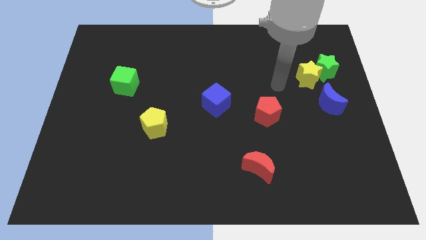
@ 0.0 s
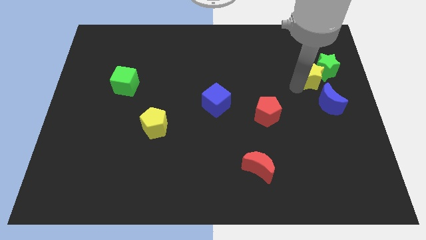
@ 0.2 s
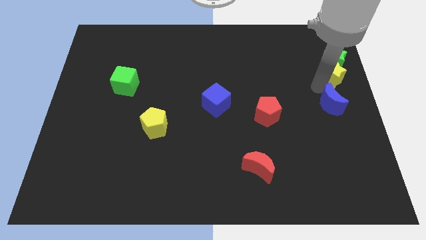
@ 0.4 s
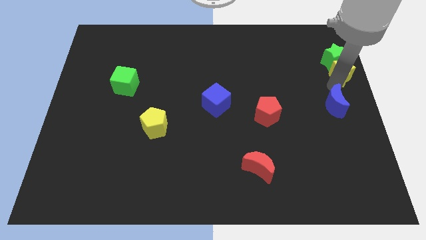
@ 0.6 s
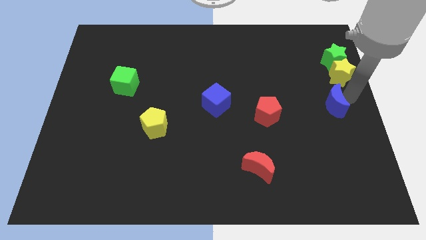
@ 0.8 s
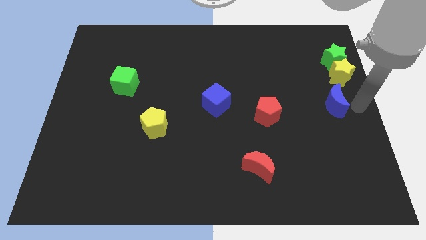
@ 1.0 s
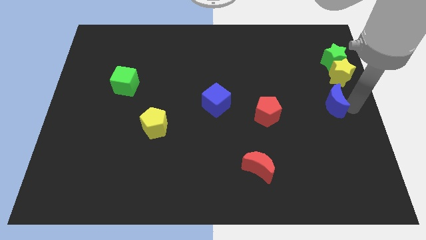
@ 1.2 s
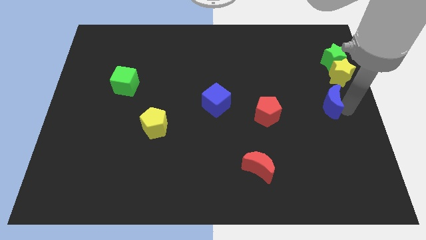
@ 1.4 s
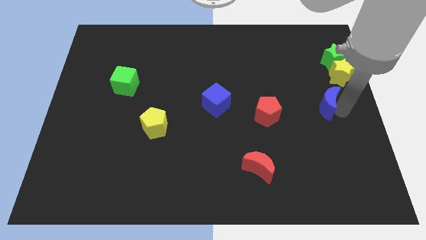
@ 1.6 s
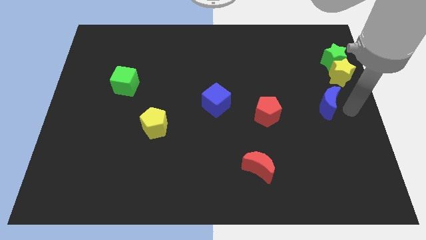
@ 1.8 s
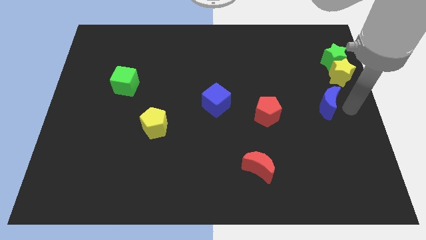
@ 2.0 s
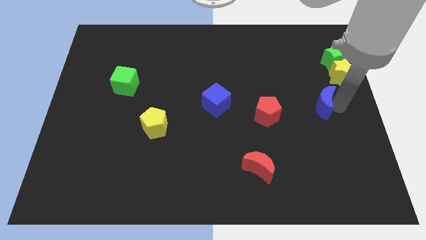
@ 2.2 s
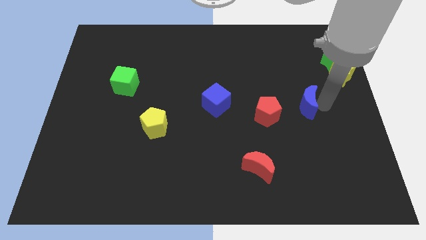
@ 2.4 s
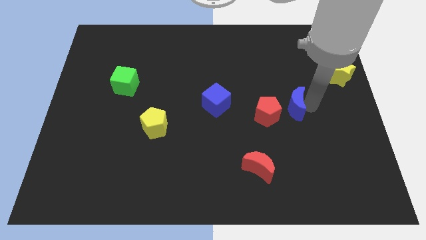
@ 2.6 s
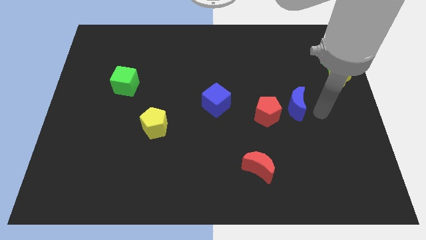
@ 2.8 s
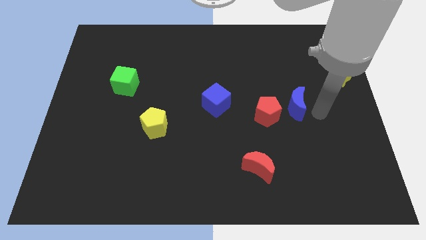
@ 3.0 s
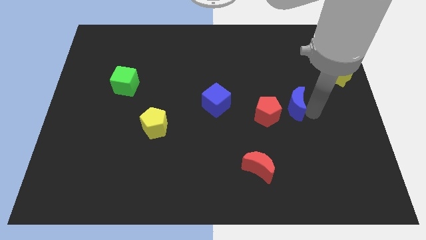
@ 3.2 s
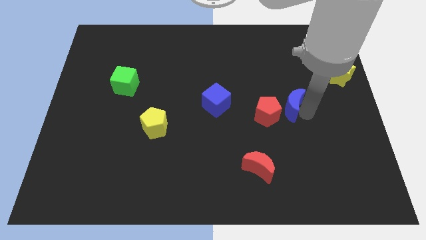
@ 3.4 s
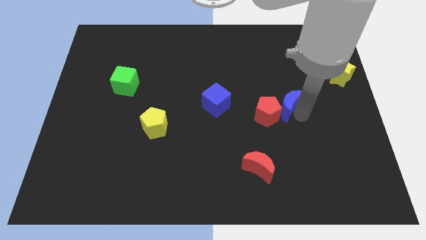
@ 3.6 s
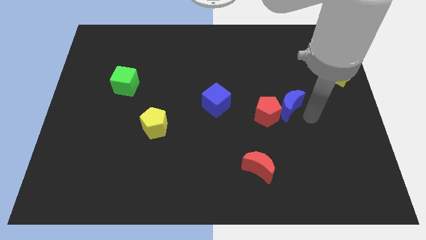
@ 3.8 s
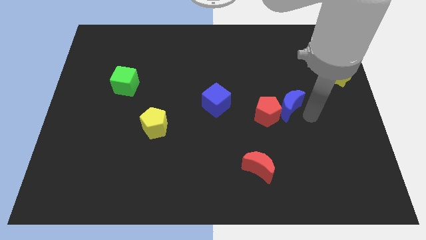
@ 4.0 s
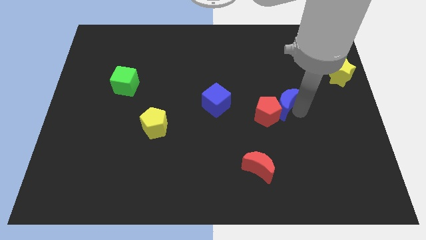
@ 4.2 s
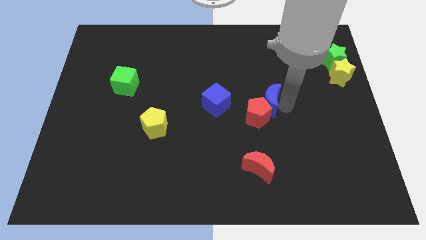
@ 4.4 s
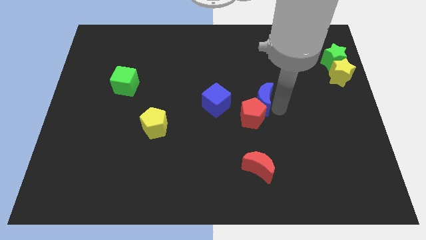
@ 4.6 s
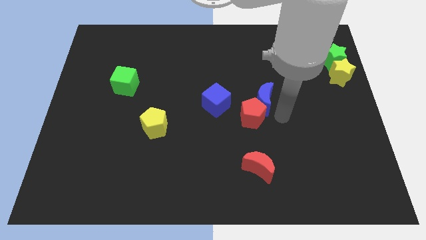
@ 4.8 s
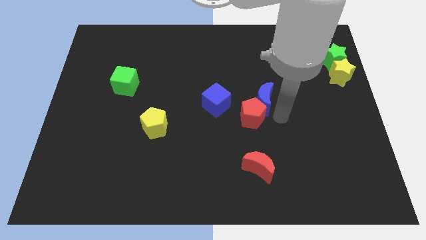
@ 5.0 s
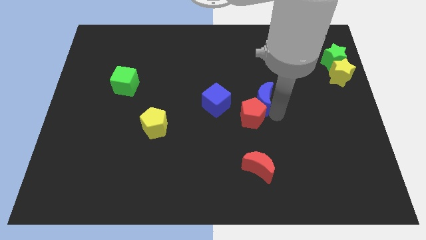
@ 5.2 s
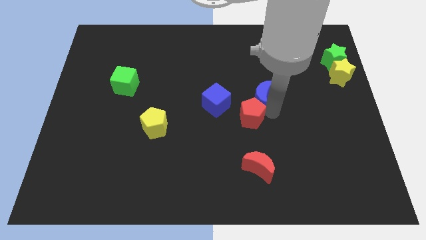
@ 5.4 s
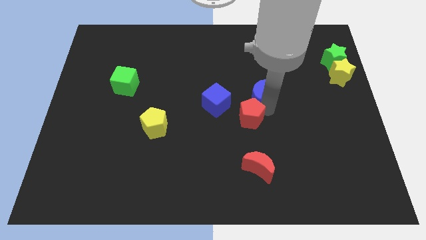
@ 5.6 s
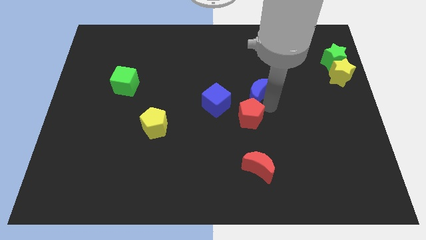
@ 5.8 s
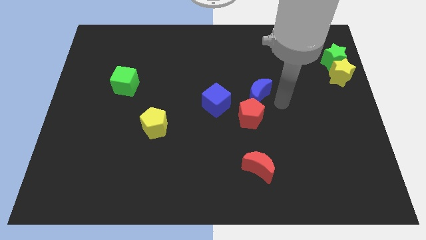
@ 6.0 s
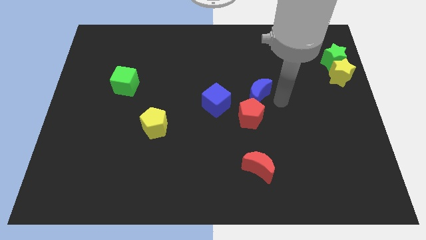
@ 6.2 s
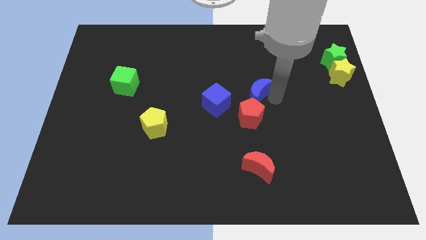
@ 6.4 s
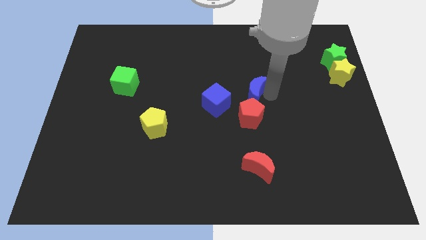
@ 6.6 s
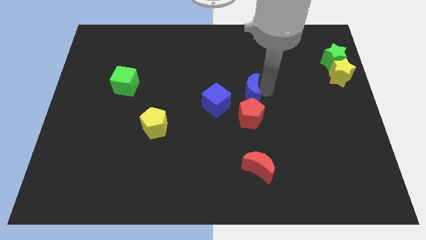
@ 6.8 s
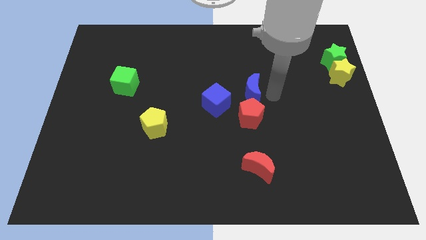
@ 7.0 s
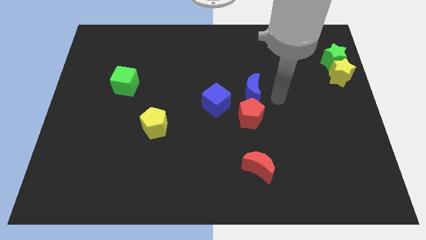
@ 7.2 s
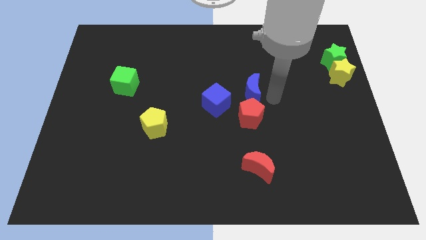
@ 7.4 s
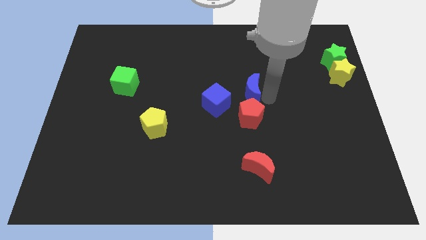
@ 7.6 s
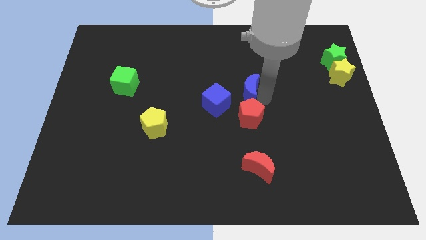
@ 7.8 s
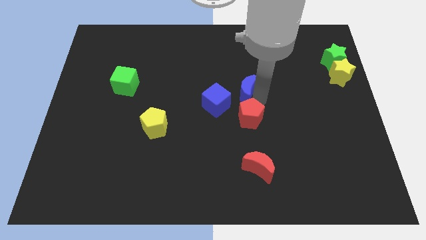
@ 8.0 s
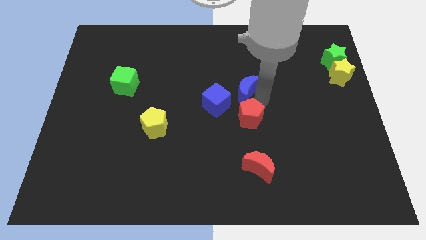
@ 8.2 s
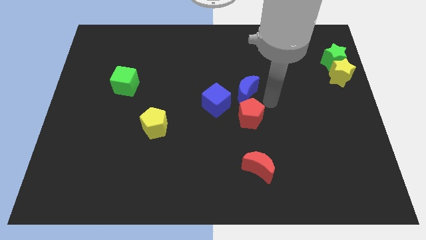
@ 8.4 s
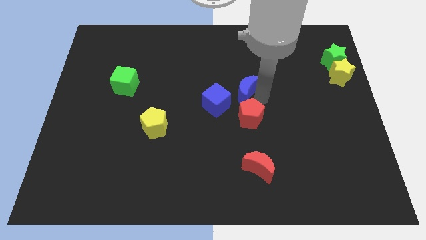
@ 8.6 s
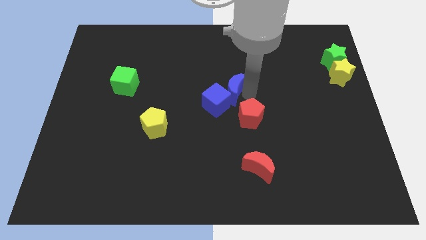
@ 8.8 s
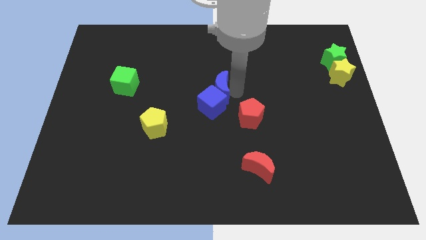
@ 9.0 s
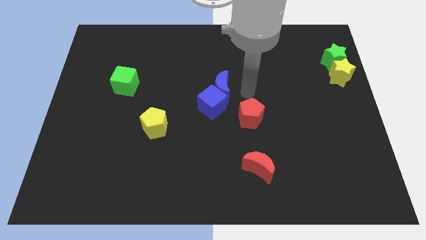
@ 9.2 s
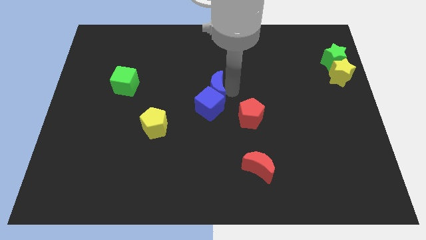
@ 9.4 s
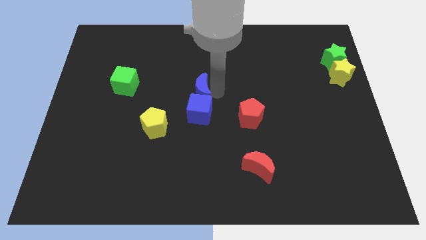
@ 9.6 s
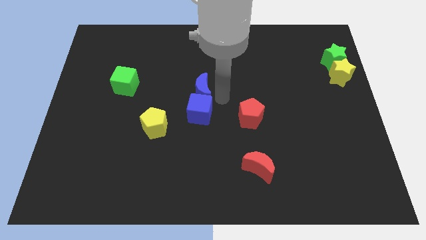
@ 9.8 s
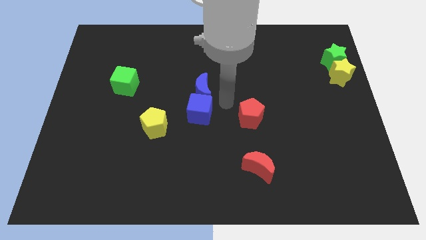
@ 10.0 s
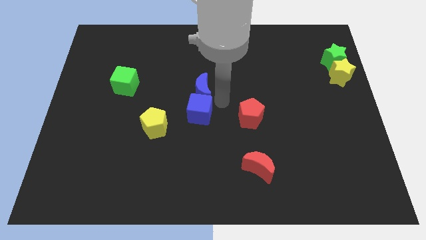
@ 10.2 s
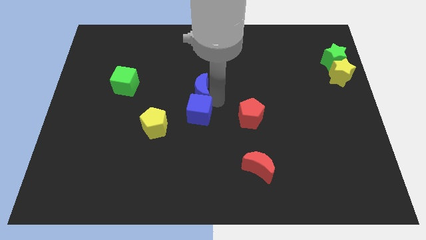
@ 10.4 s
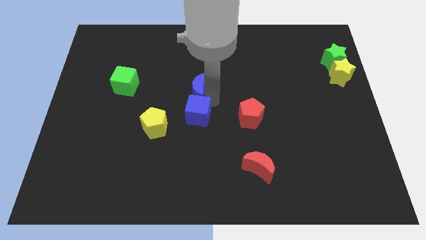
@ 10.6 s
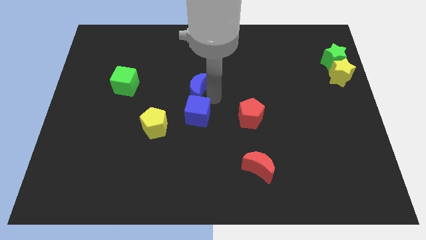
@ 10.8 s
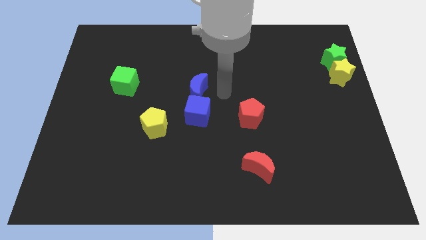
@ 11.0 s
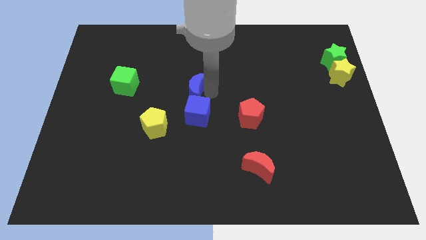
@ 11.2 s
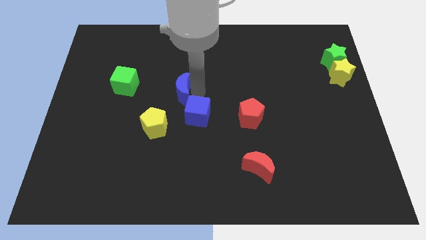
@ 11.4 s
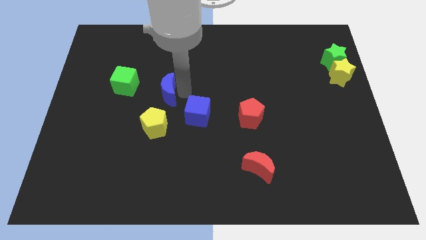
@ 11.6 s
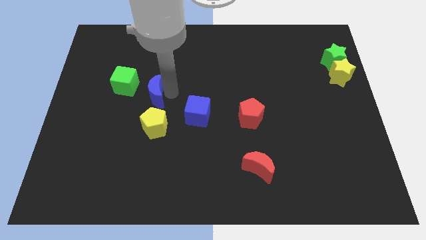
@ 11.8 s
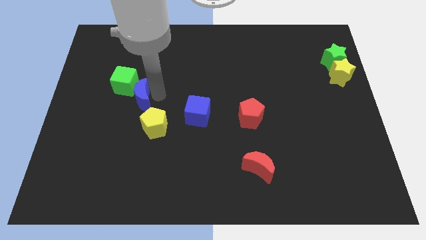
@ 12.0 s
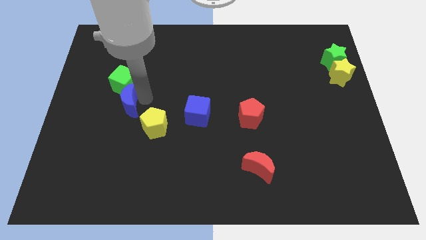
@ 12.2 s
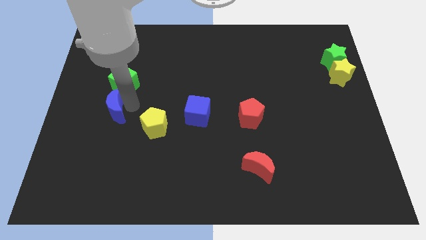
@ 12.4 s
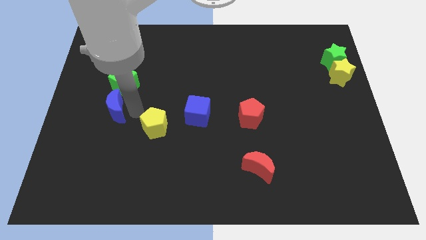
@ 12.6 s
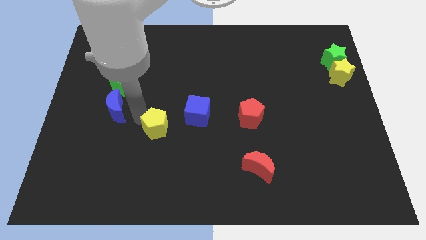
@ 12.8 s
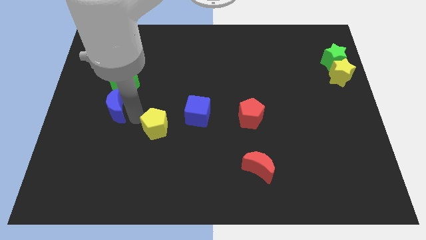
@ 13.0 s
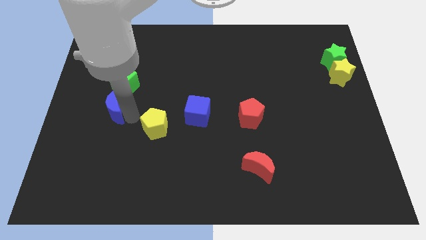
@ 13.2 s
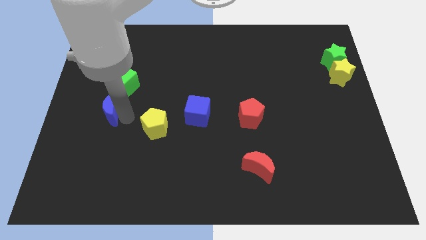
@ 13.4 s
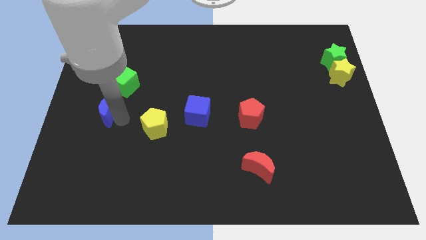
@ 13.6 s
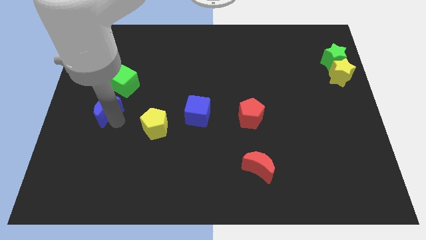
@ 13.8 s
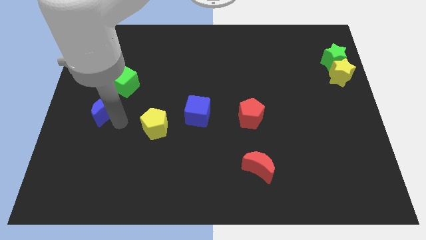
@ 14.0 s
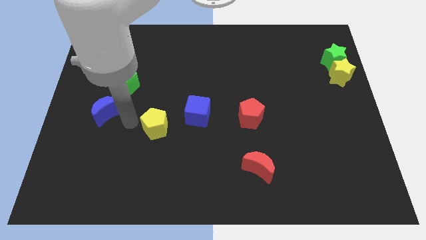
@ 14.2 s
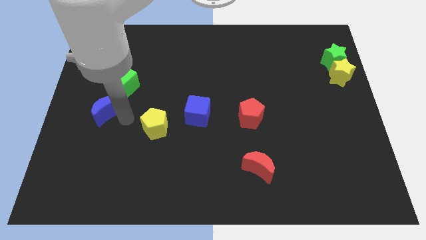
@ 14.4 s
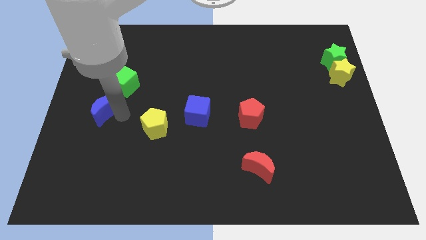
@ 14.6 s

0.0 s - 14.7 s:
put the blue moon to the left side
